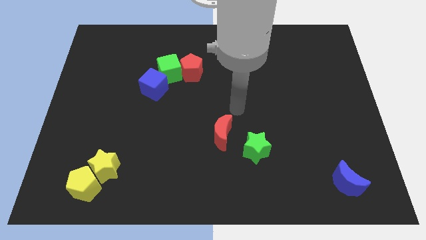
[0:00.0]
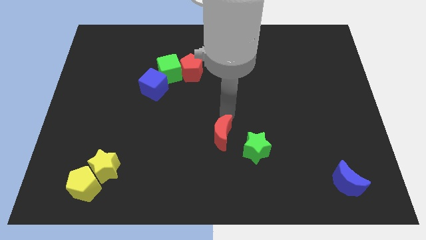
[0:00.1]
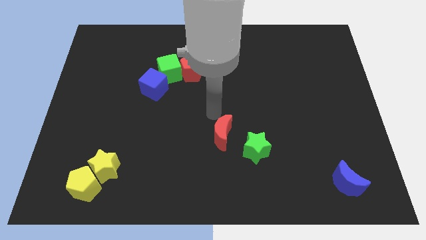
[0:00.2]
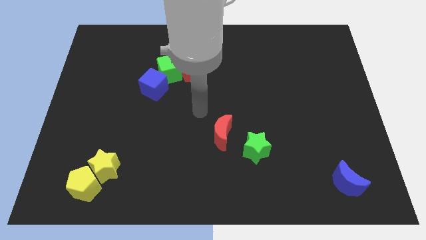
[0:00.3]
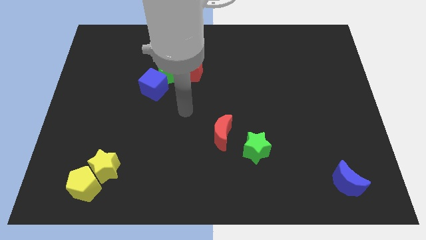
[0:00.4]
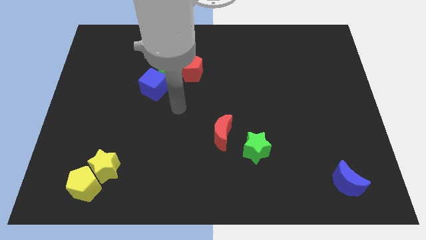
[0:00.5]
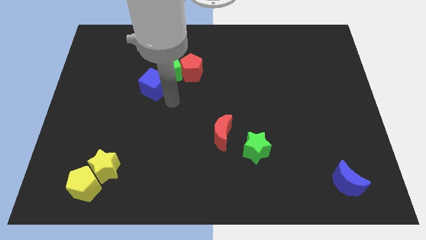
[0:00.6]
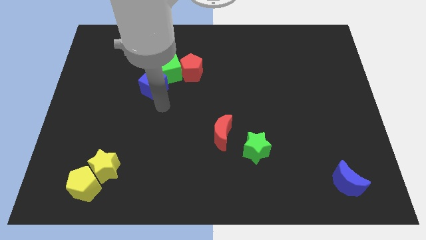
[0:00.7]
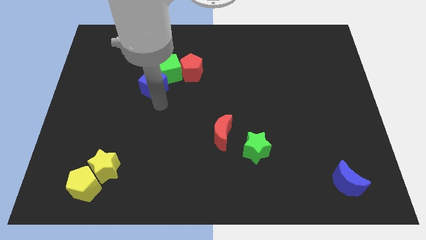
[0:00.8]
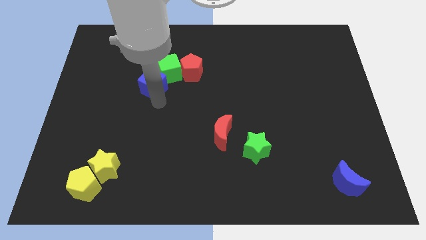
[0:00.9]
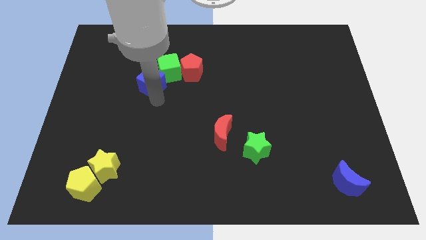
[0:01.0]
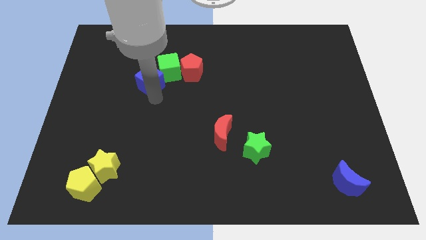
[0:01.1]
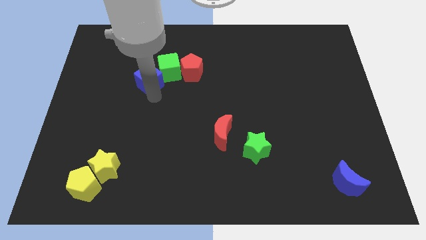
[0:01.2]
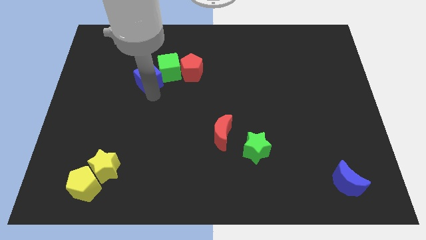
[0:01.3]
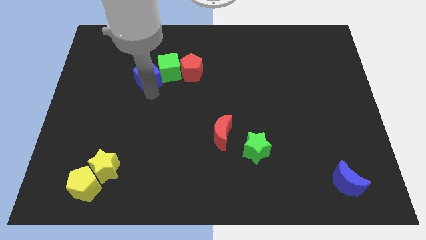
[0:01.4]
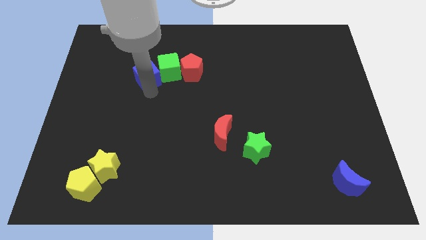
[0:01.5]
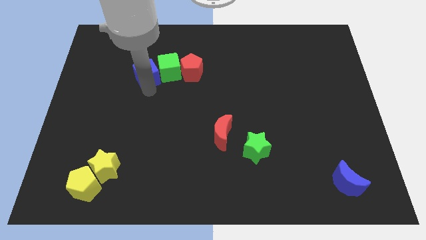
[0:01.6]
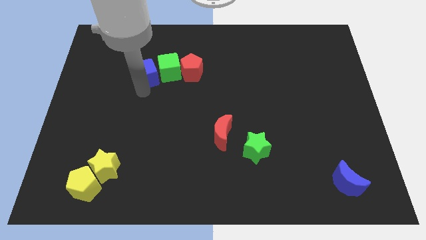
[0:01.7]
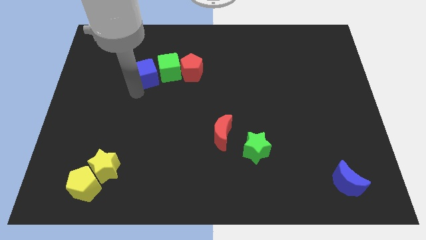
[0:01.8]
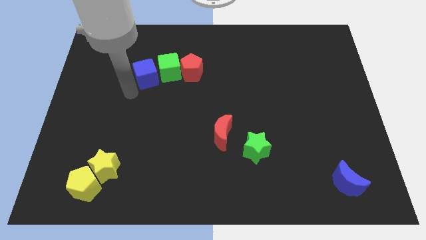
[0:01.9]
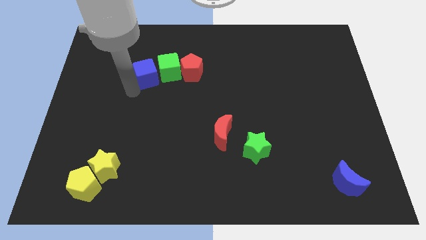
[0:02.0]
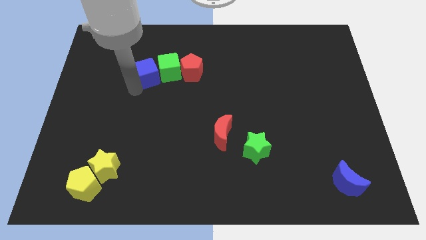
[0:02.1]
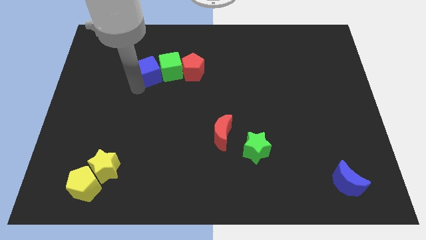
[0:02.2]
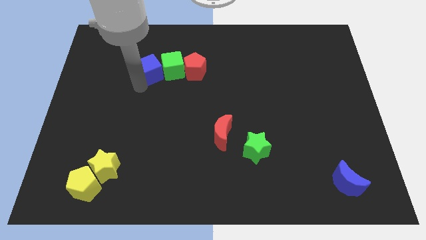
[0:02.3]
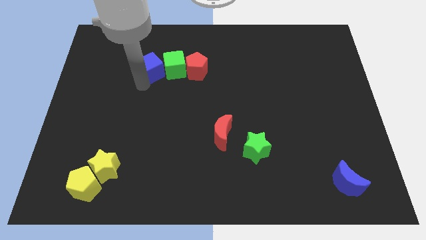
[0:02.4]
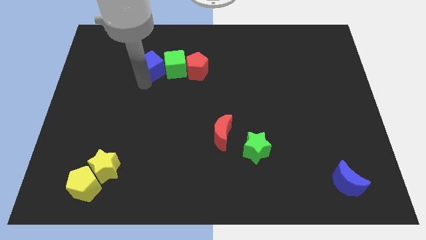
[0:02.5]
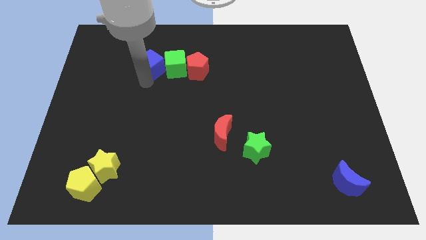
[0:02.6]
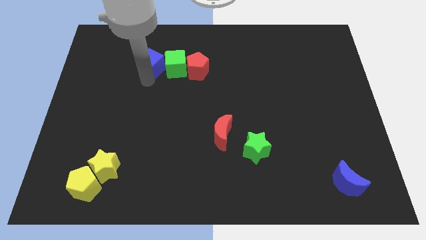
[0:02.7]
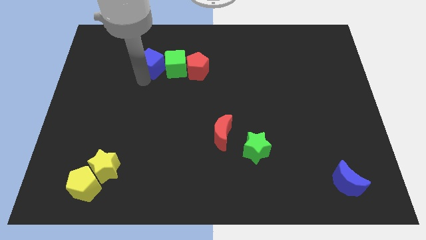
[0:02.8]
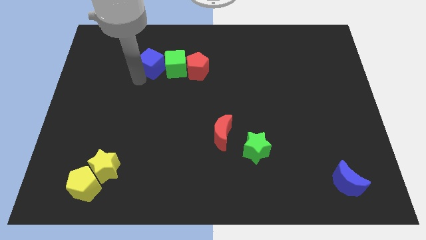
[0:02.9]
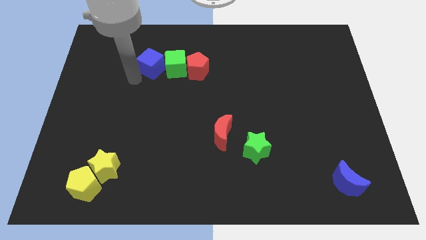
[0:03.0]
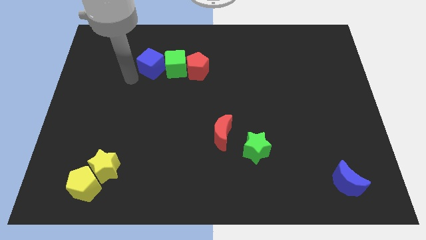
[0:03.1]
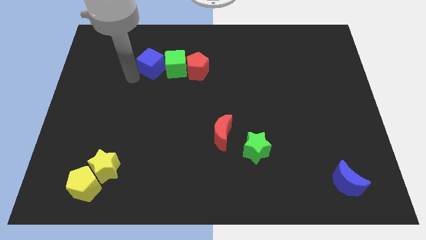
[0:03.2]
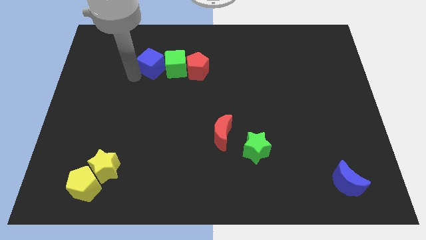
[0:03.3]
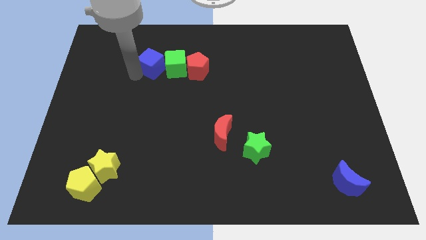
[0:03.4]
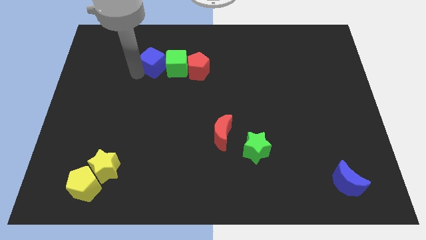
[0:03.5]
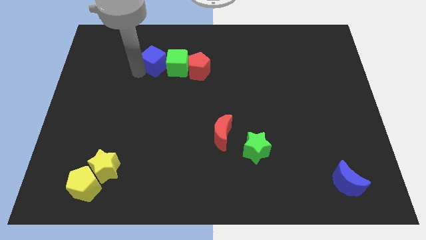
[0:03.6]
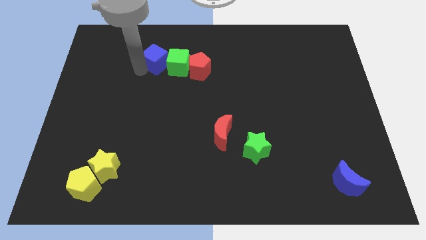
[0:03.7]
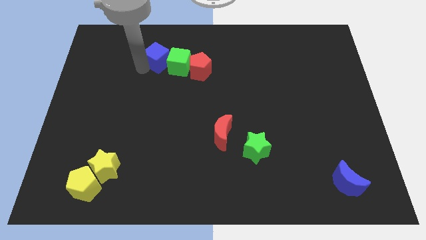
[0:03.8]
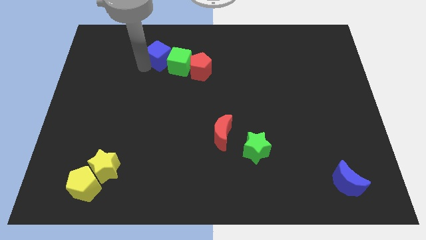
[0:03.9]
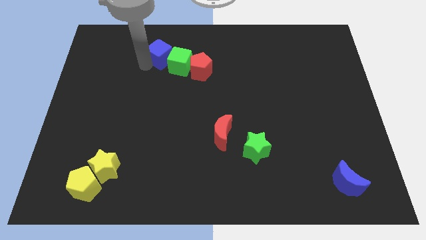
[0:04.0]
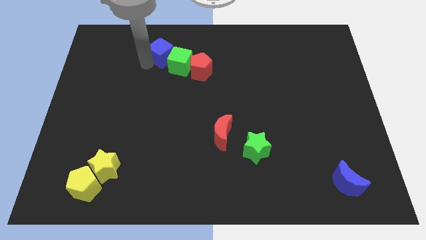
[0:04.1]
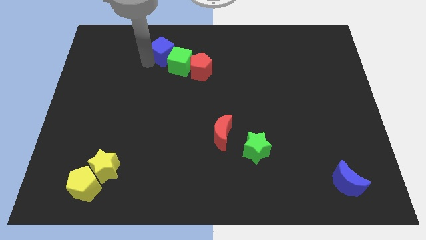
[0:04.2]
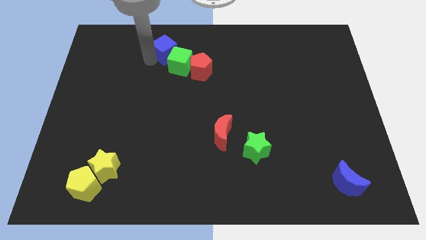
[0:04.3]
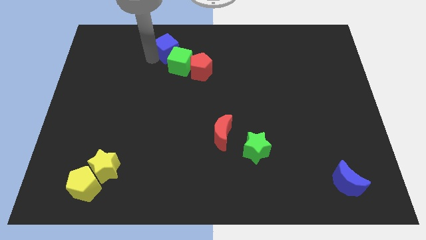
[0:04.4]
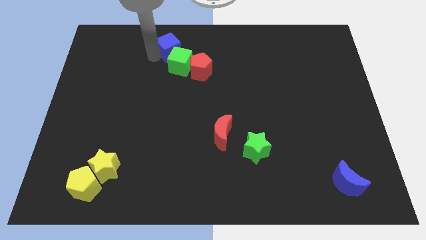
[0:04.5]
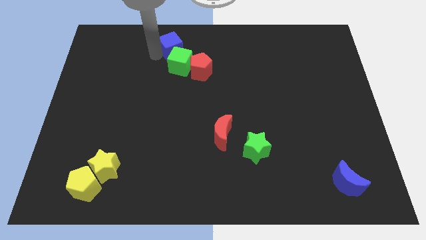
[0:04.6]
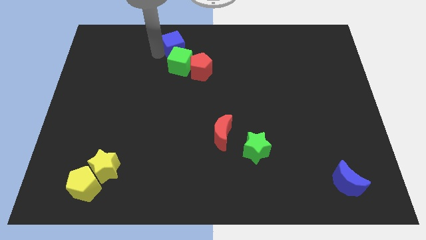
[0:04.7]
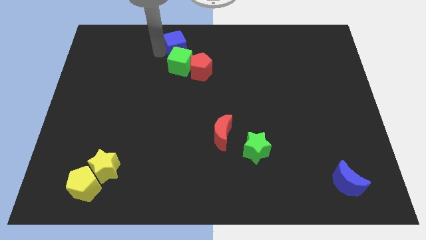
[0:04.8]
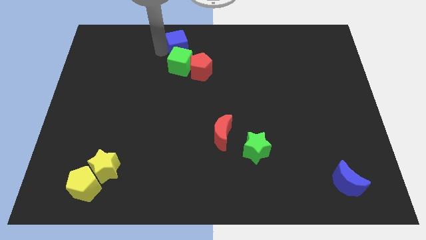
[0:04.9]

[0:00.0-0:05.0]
move the blue cube to the top

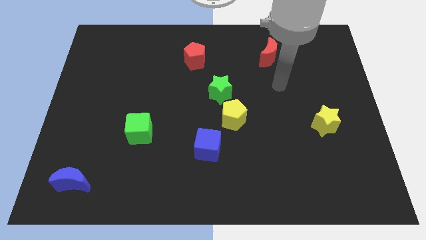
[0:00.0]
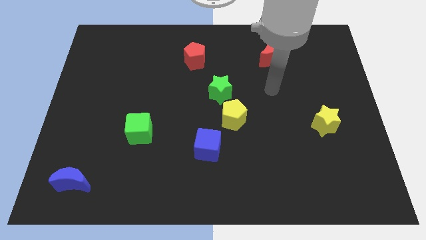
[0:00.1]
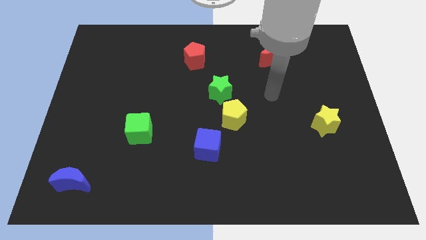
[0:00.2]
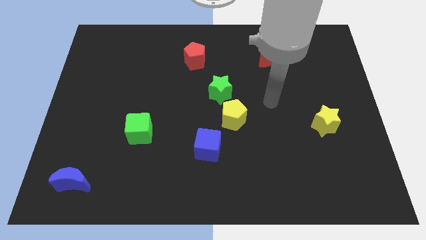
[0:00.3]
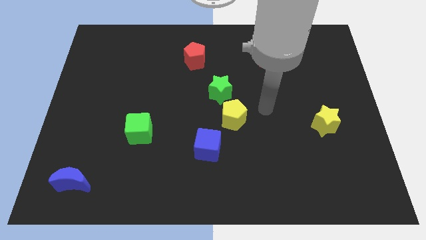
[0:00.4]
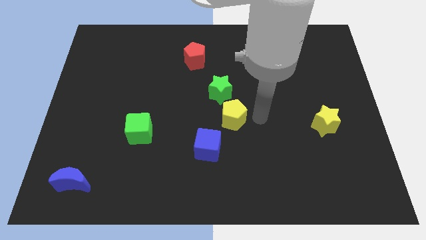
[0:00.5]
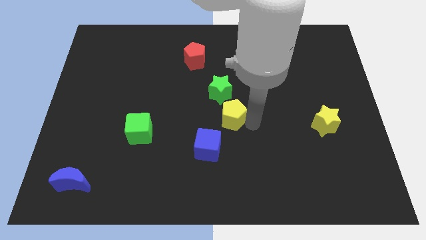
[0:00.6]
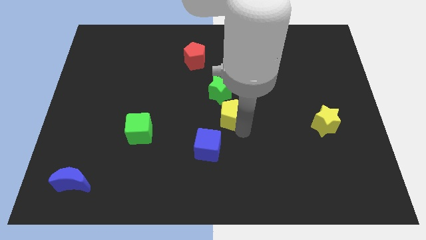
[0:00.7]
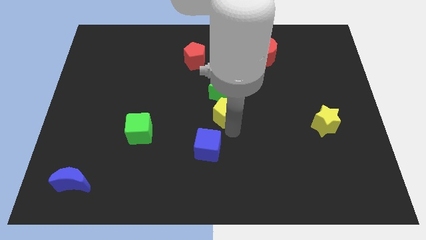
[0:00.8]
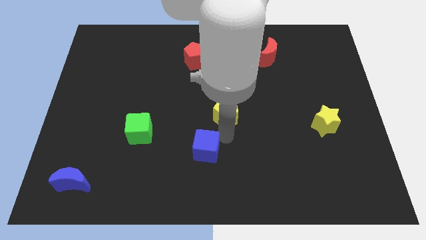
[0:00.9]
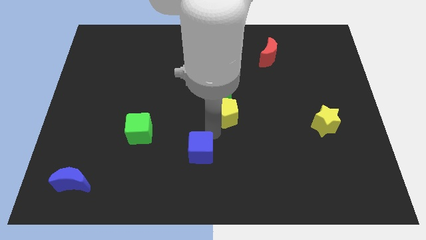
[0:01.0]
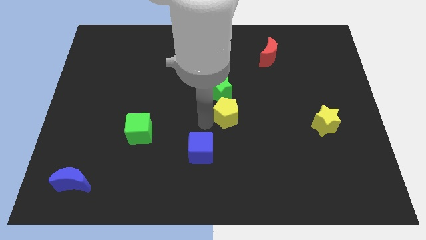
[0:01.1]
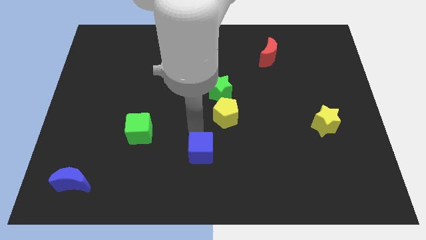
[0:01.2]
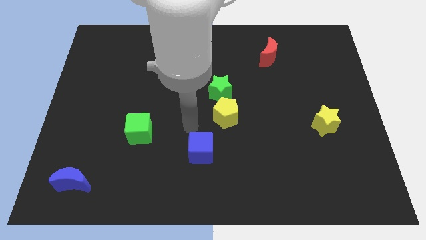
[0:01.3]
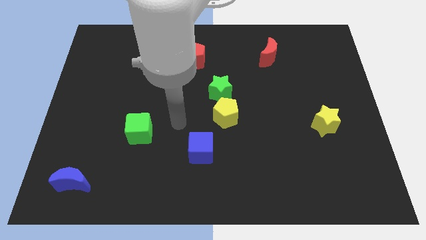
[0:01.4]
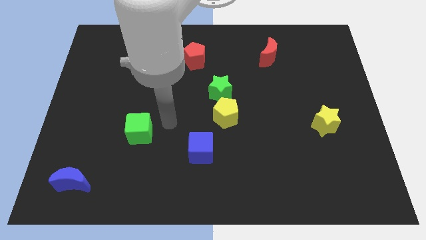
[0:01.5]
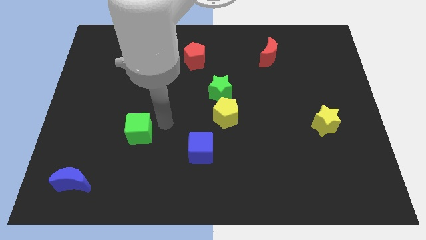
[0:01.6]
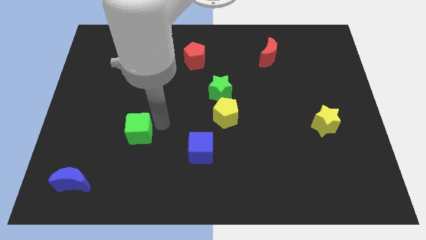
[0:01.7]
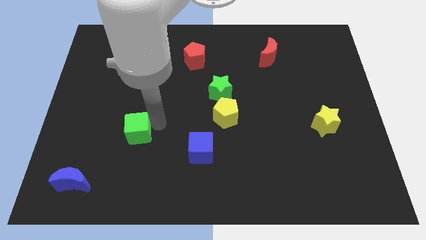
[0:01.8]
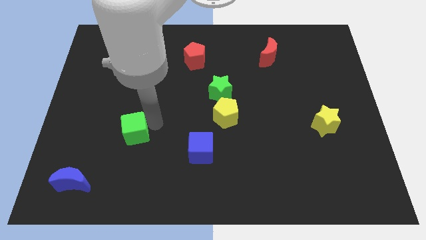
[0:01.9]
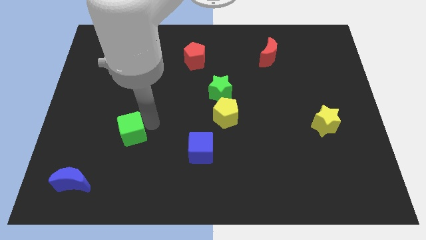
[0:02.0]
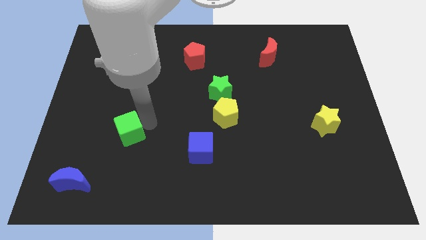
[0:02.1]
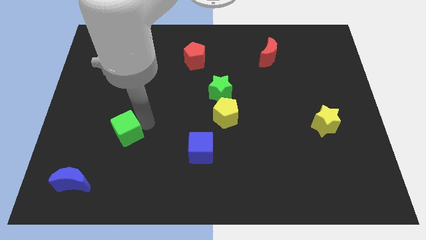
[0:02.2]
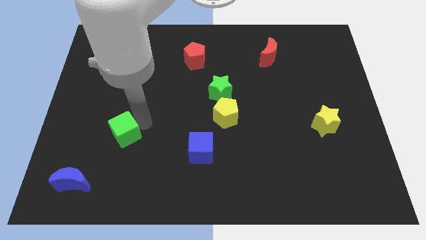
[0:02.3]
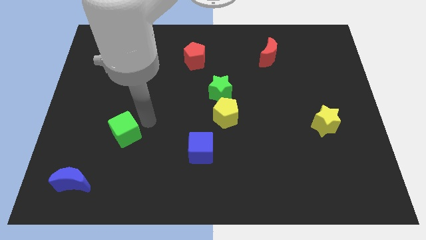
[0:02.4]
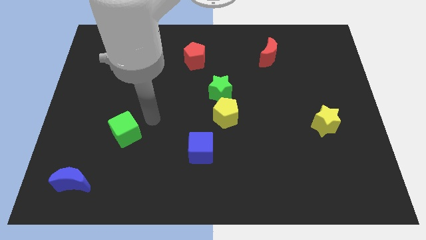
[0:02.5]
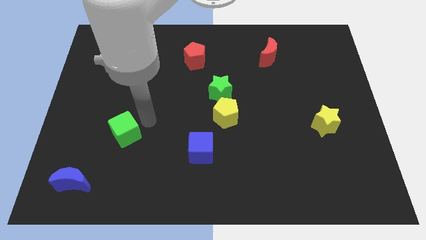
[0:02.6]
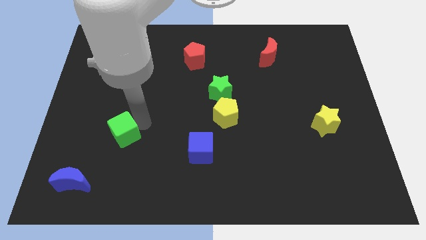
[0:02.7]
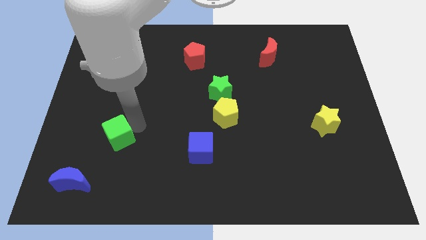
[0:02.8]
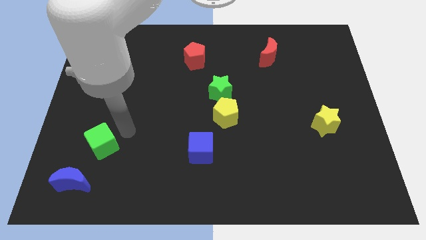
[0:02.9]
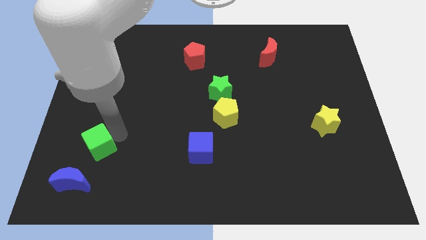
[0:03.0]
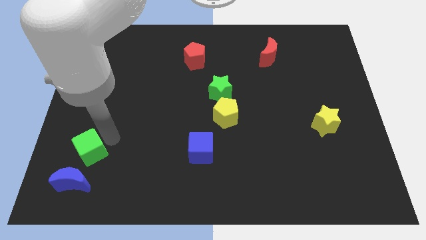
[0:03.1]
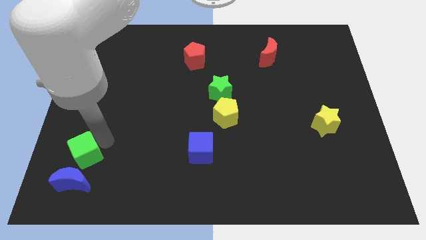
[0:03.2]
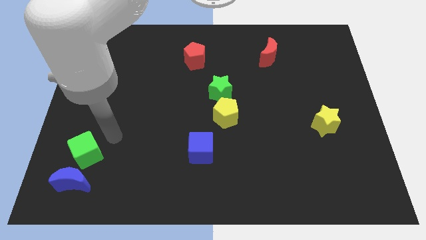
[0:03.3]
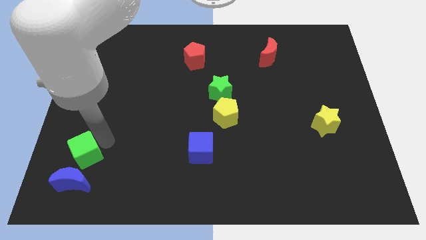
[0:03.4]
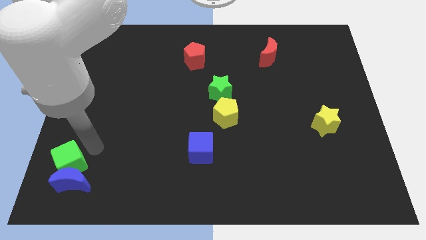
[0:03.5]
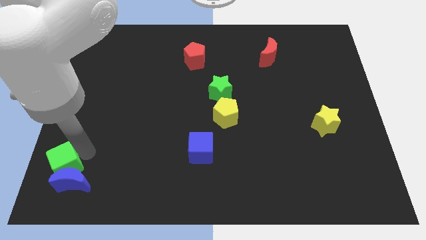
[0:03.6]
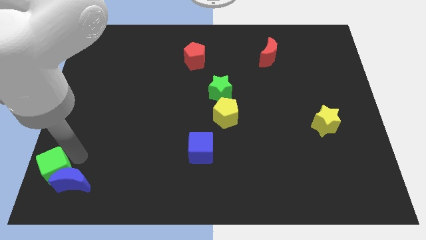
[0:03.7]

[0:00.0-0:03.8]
push the green cube to the bottom left corner
